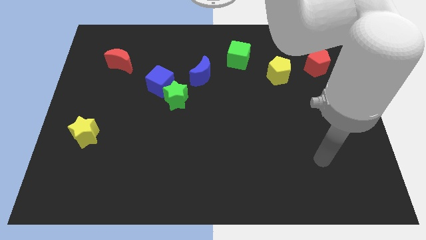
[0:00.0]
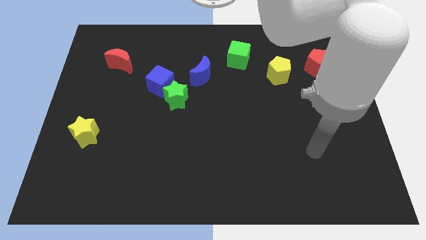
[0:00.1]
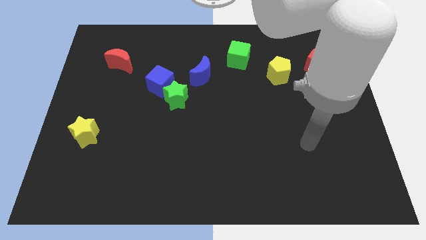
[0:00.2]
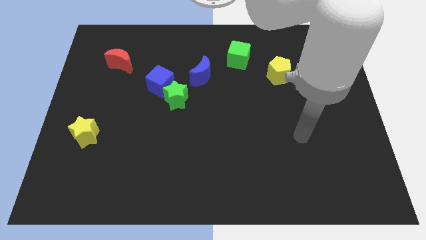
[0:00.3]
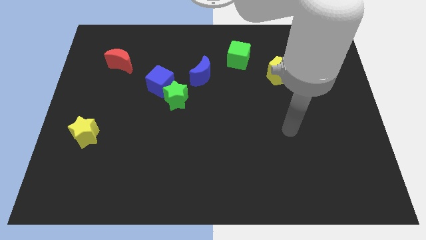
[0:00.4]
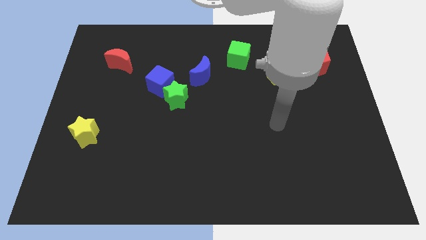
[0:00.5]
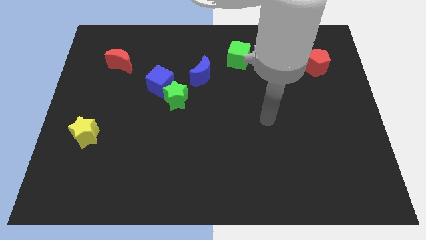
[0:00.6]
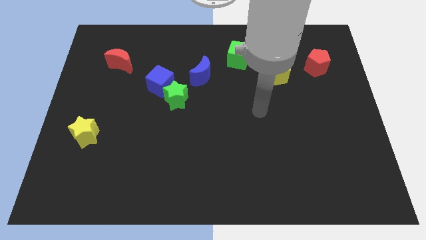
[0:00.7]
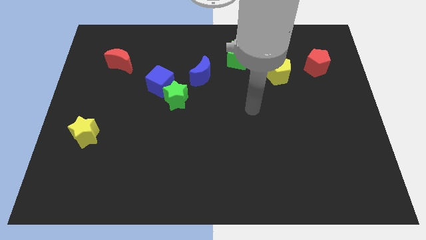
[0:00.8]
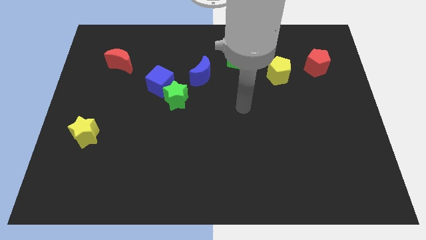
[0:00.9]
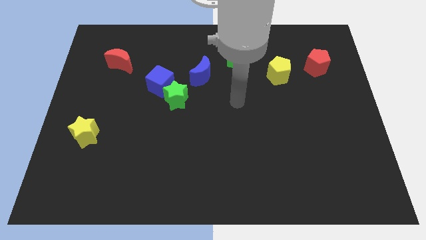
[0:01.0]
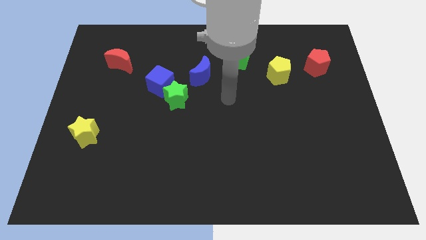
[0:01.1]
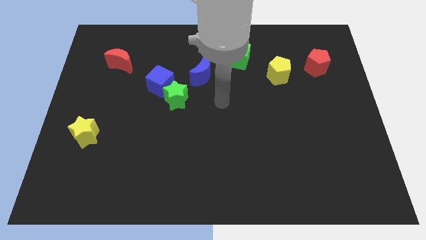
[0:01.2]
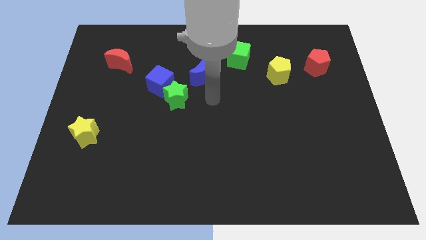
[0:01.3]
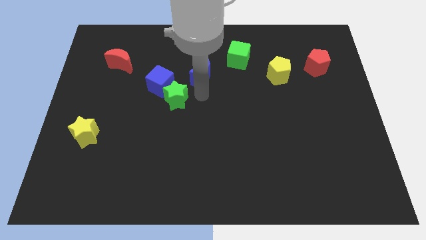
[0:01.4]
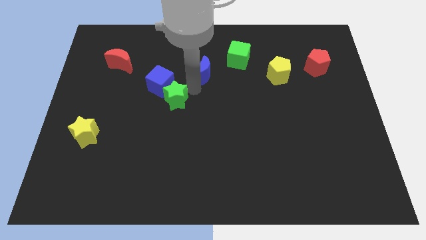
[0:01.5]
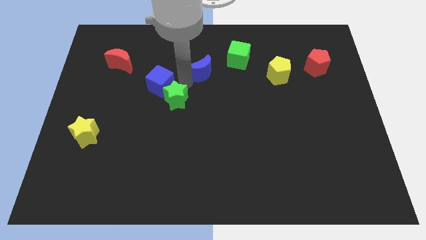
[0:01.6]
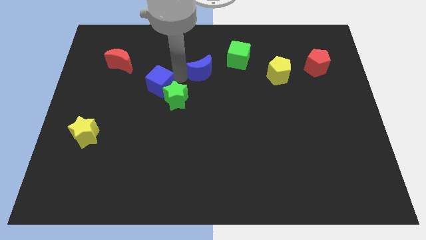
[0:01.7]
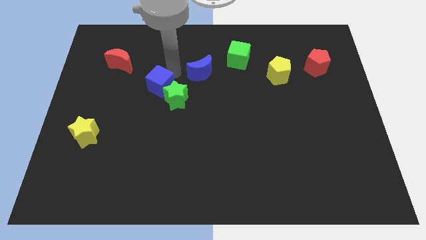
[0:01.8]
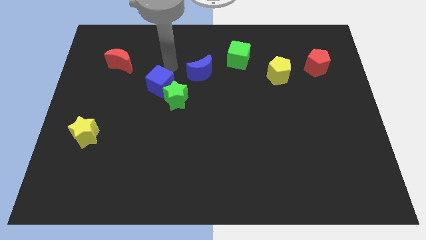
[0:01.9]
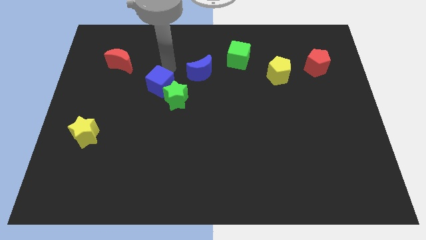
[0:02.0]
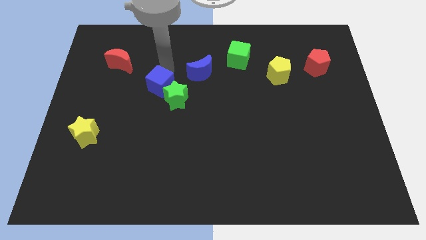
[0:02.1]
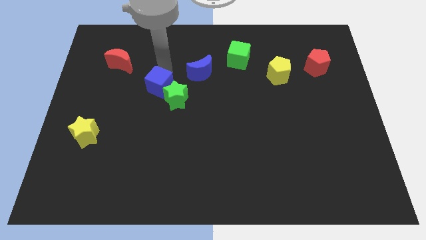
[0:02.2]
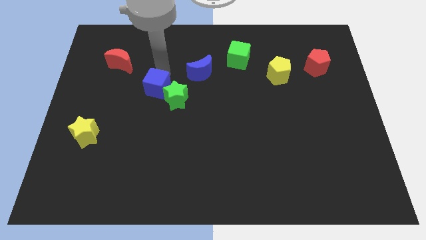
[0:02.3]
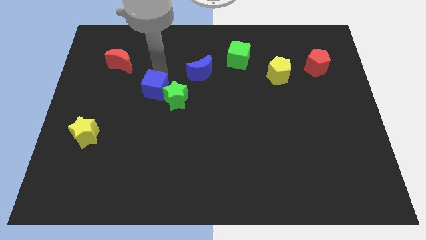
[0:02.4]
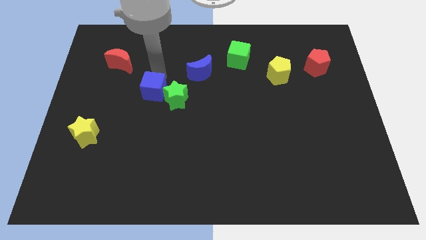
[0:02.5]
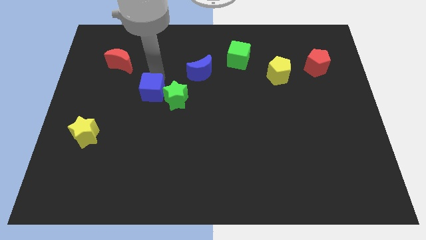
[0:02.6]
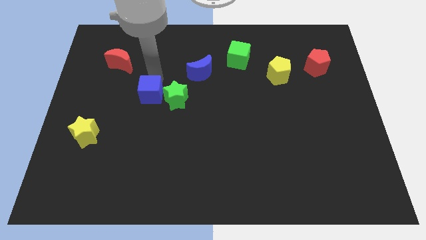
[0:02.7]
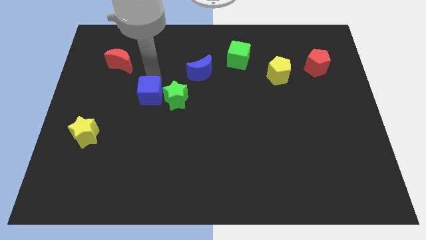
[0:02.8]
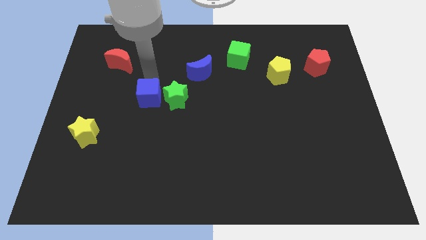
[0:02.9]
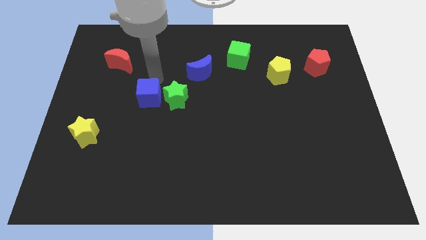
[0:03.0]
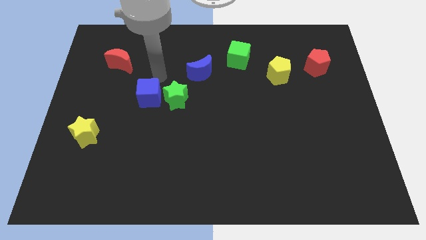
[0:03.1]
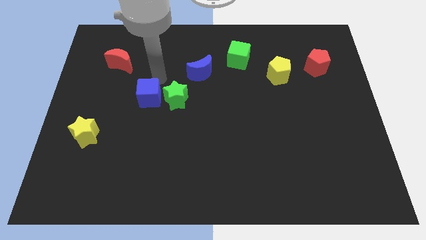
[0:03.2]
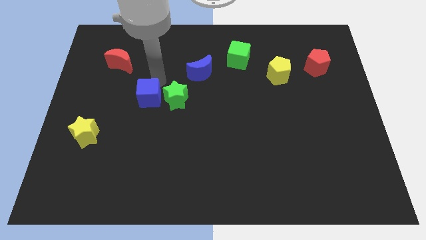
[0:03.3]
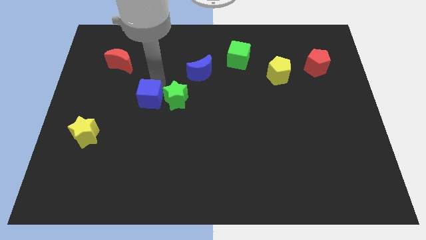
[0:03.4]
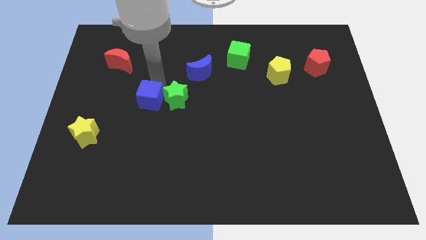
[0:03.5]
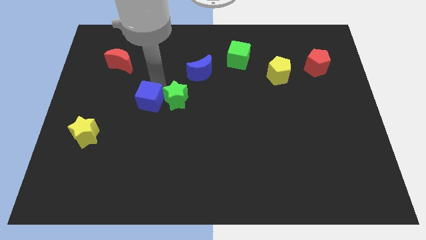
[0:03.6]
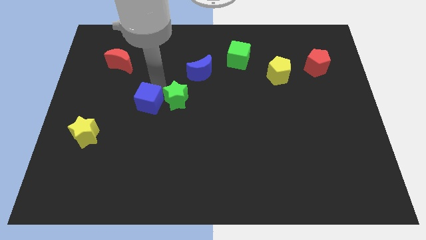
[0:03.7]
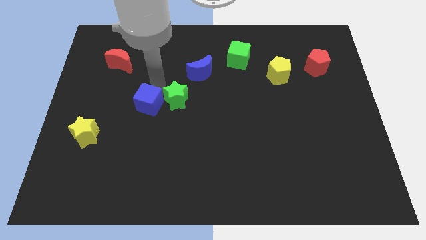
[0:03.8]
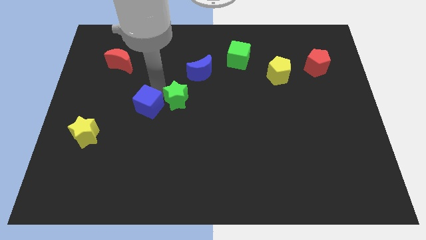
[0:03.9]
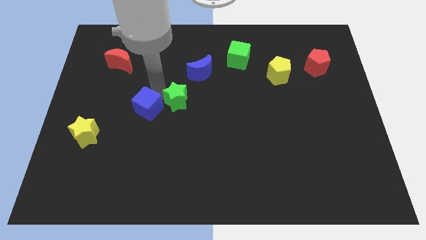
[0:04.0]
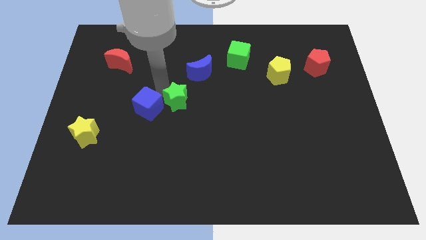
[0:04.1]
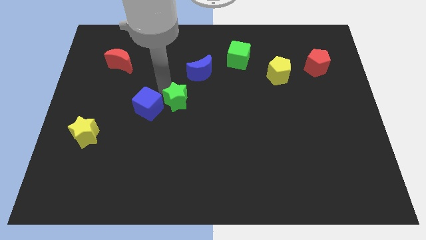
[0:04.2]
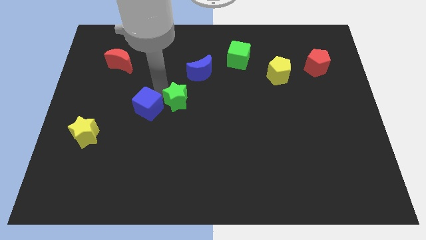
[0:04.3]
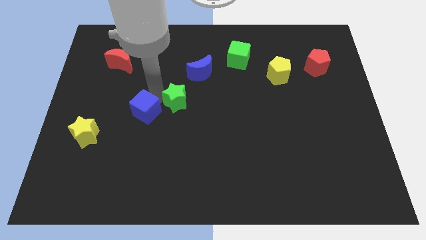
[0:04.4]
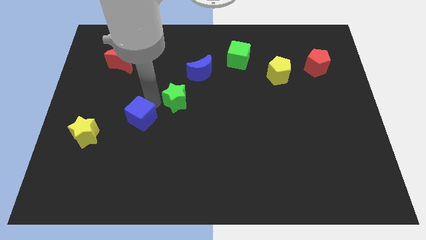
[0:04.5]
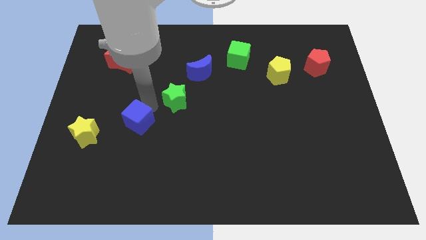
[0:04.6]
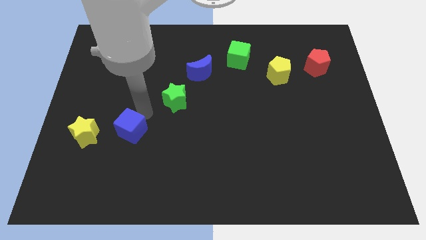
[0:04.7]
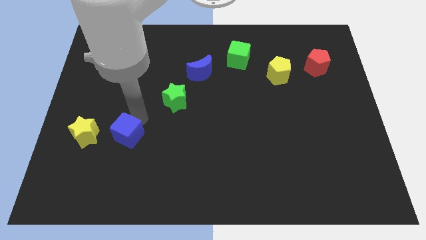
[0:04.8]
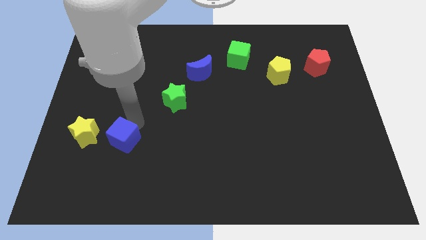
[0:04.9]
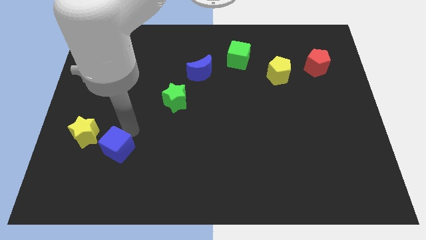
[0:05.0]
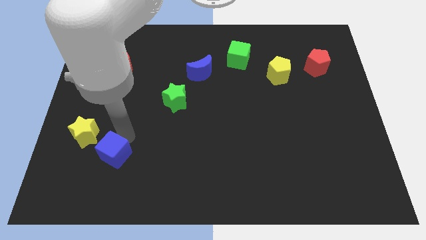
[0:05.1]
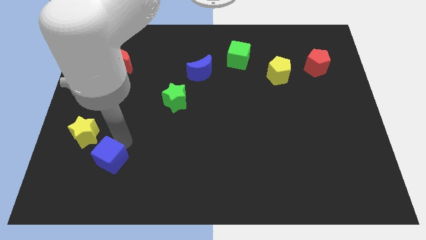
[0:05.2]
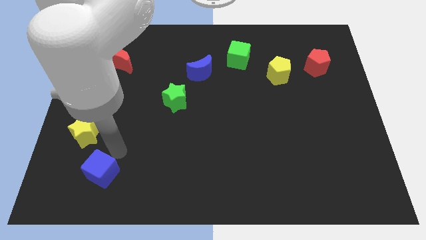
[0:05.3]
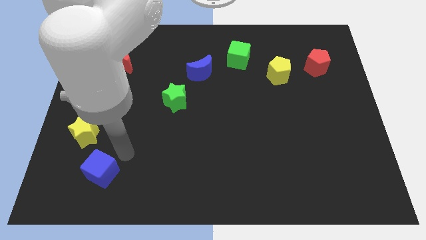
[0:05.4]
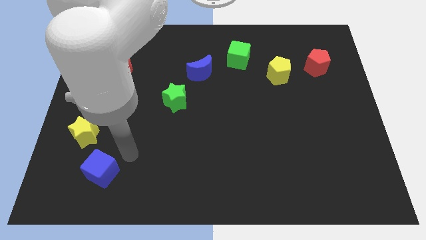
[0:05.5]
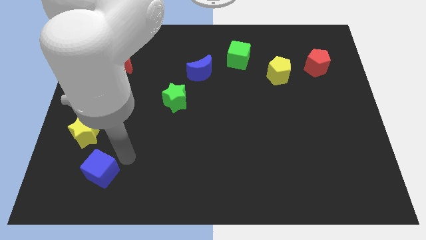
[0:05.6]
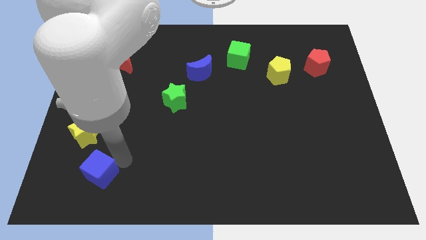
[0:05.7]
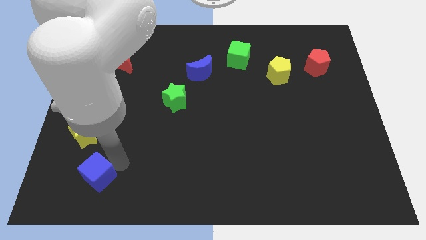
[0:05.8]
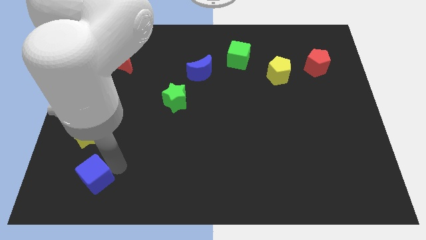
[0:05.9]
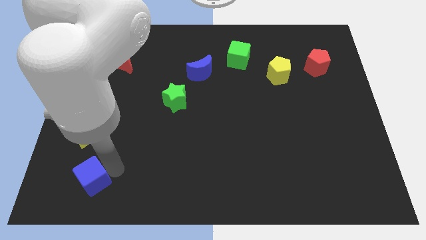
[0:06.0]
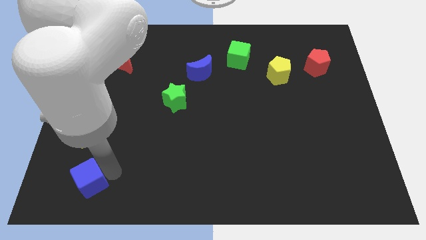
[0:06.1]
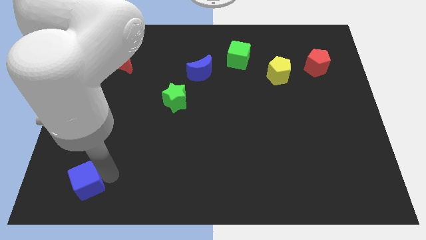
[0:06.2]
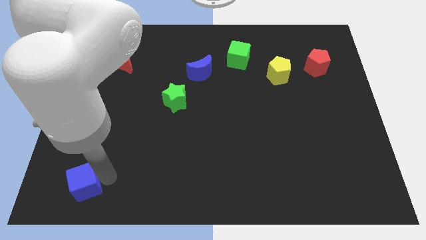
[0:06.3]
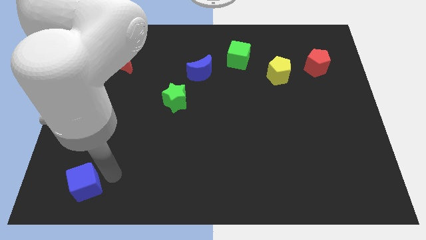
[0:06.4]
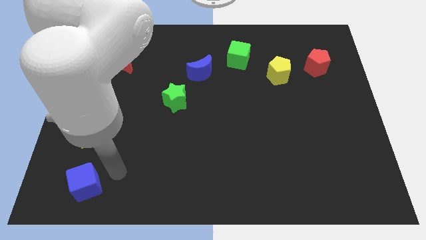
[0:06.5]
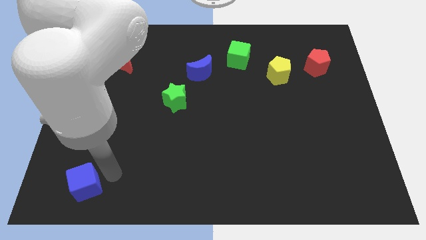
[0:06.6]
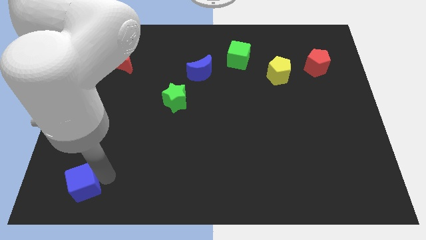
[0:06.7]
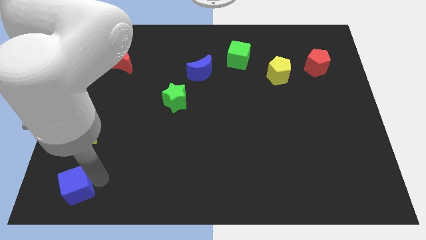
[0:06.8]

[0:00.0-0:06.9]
push the blue cube to the bottom left corner
